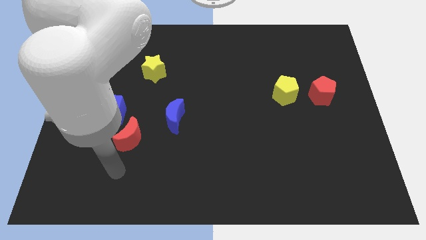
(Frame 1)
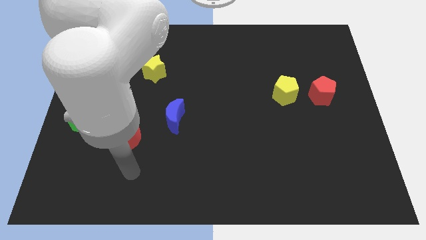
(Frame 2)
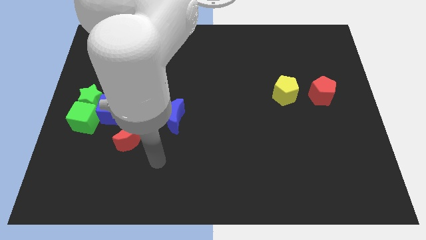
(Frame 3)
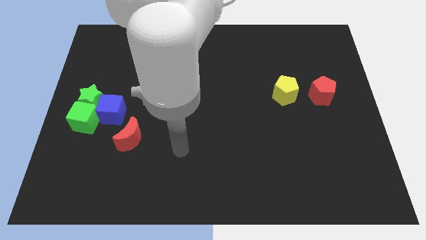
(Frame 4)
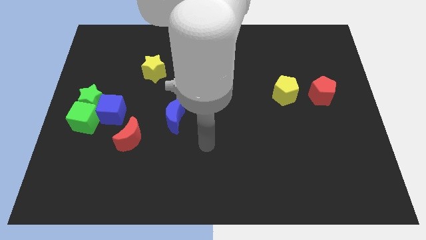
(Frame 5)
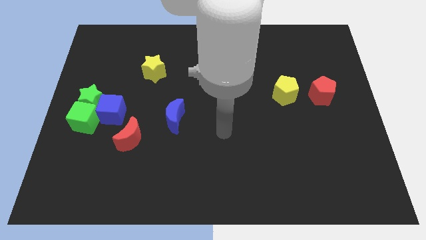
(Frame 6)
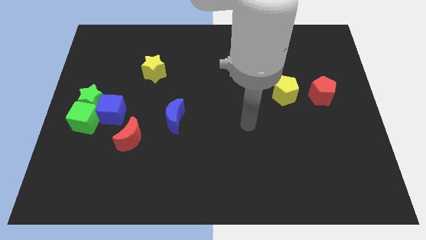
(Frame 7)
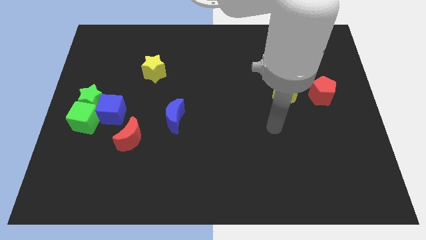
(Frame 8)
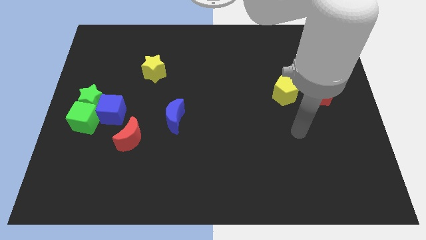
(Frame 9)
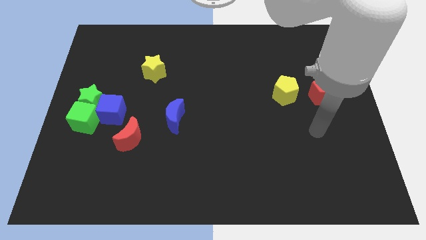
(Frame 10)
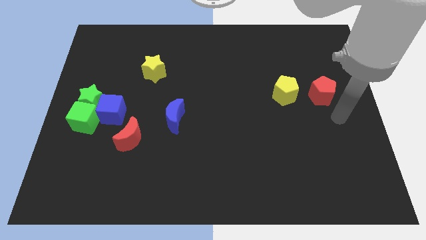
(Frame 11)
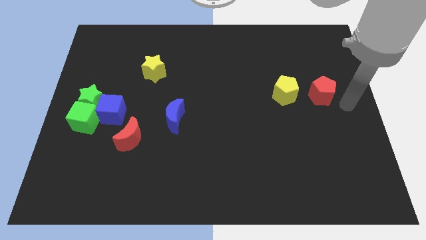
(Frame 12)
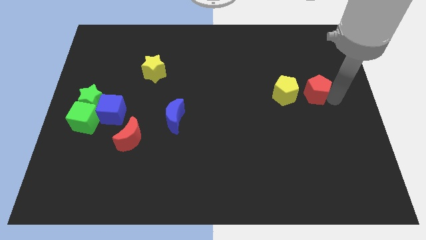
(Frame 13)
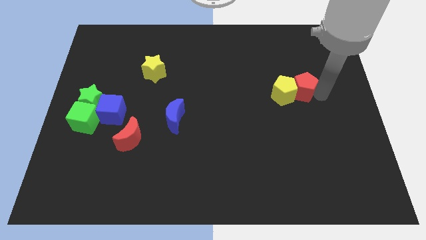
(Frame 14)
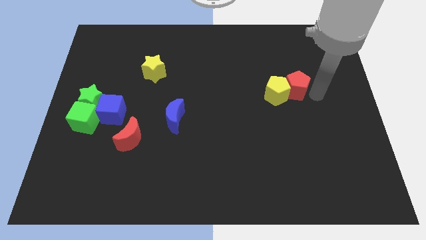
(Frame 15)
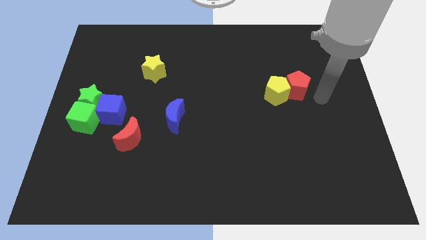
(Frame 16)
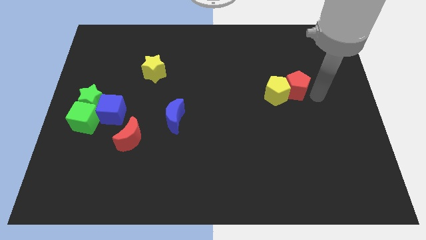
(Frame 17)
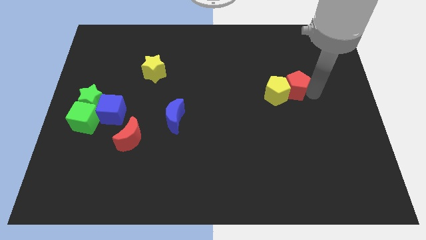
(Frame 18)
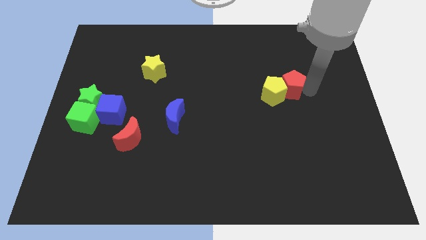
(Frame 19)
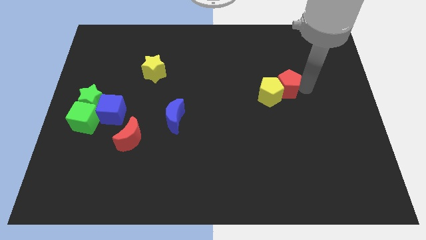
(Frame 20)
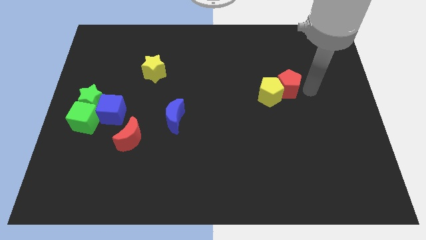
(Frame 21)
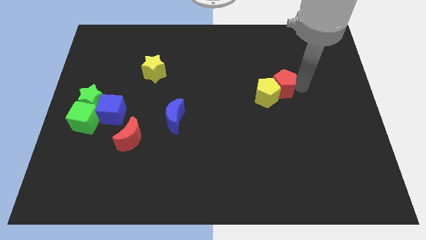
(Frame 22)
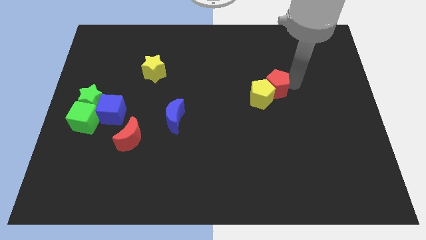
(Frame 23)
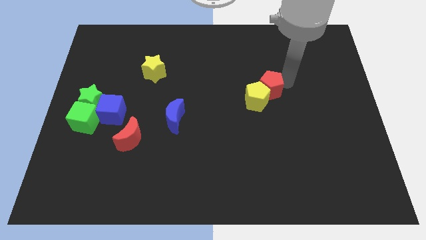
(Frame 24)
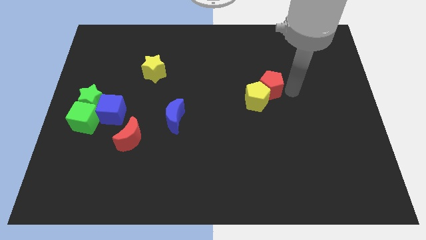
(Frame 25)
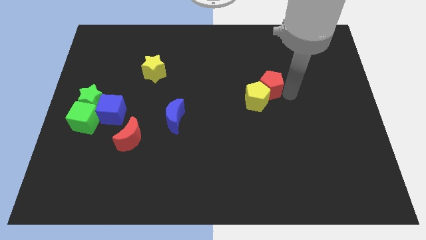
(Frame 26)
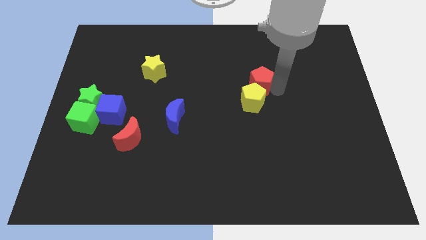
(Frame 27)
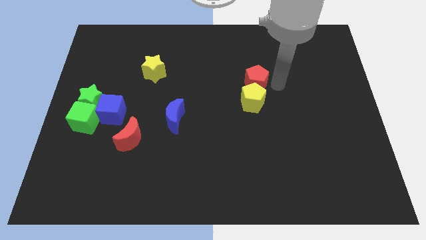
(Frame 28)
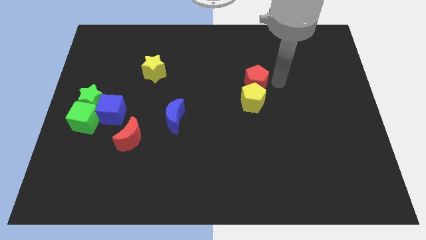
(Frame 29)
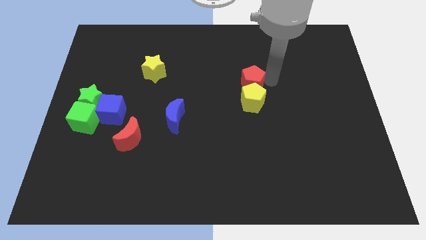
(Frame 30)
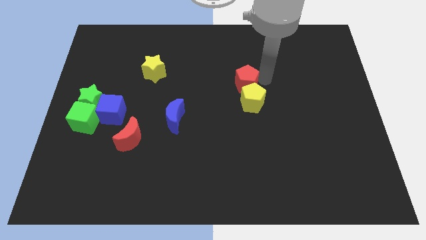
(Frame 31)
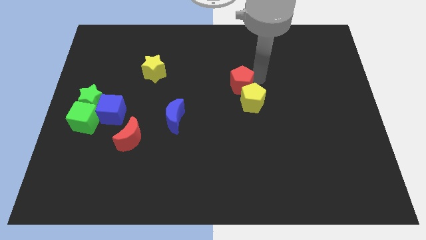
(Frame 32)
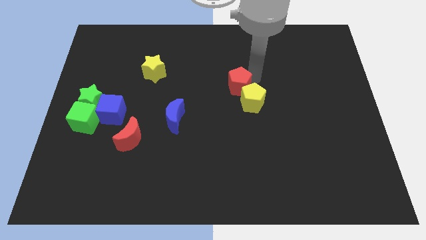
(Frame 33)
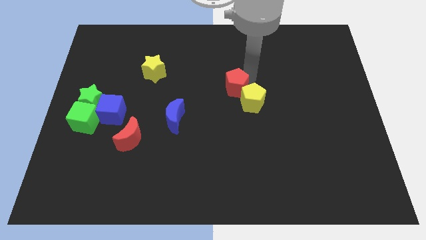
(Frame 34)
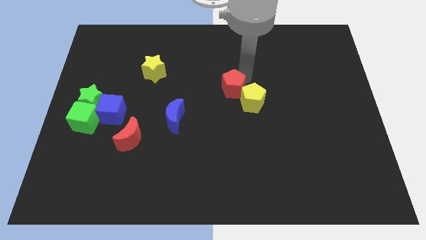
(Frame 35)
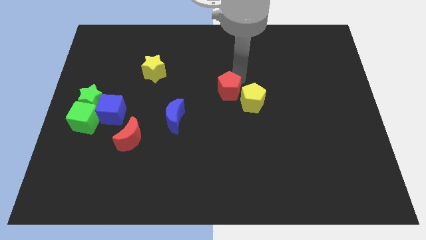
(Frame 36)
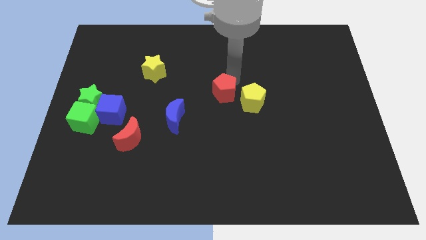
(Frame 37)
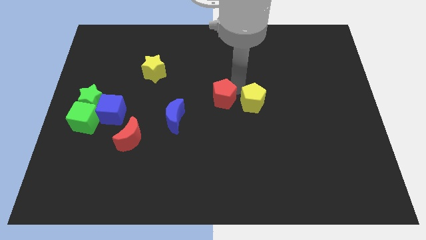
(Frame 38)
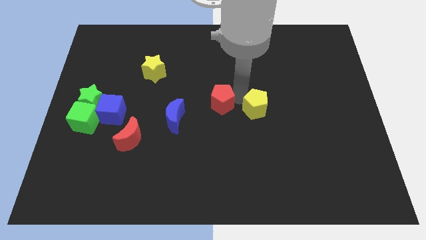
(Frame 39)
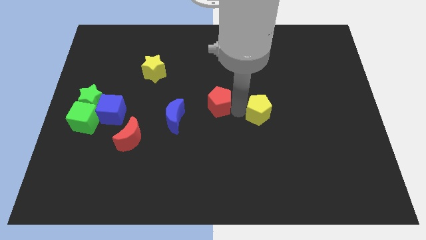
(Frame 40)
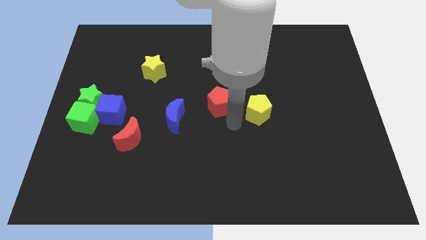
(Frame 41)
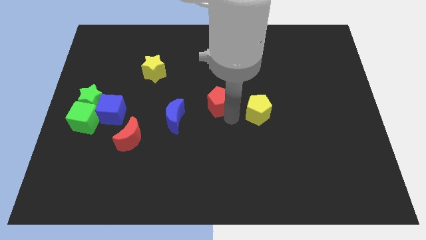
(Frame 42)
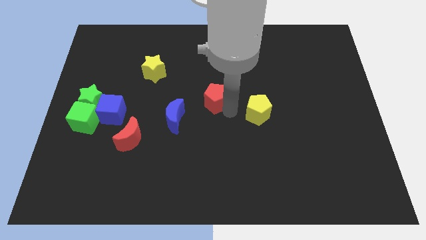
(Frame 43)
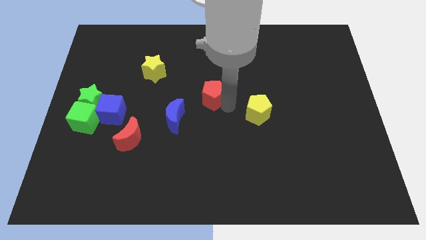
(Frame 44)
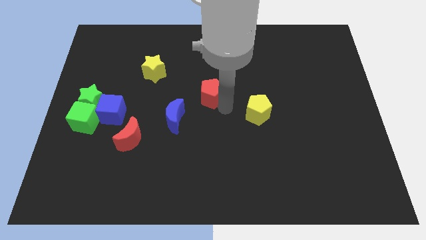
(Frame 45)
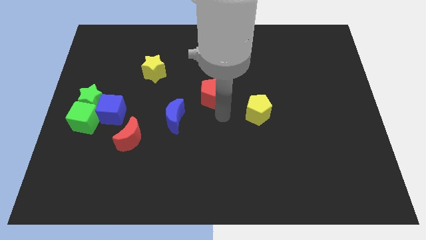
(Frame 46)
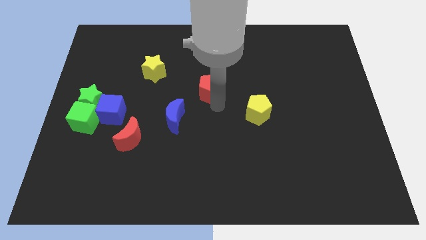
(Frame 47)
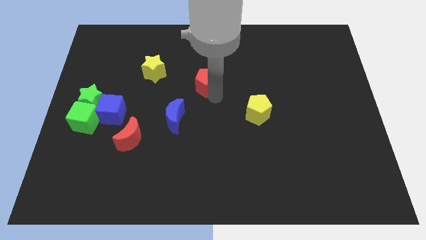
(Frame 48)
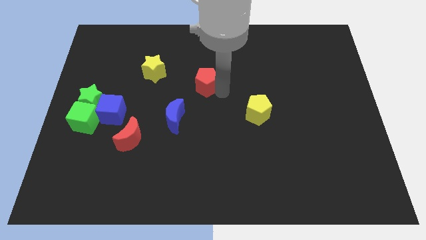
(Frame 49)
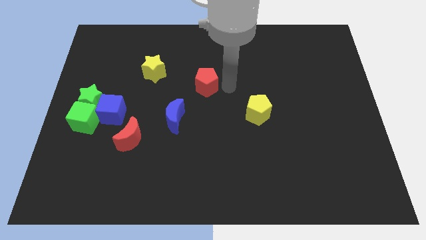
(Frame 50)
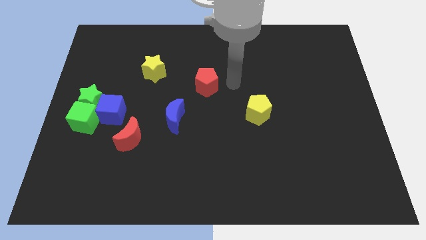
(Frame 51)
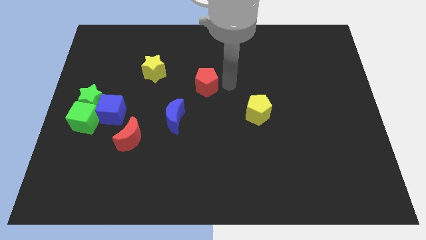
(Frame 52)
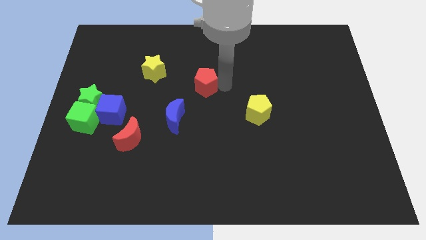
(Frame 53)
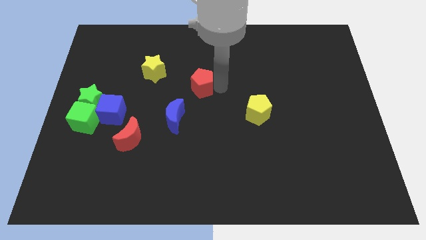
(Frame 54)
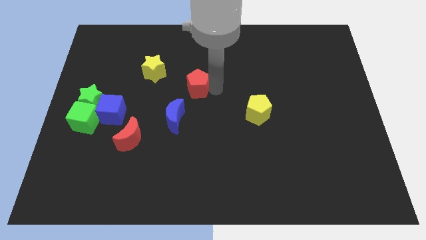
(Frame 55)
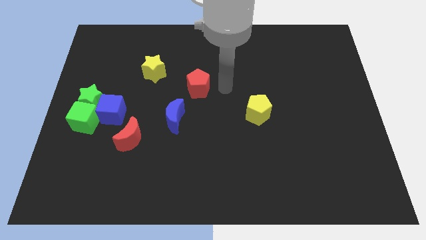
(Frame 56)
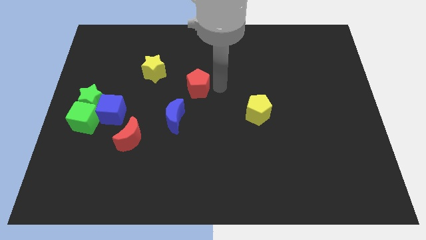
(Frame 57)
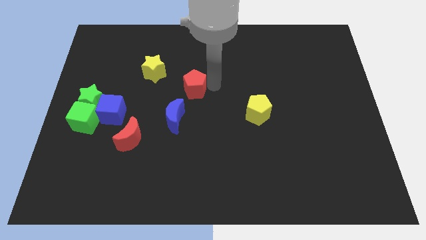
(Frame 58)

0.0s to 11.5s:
put the red pentagon to the bottom right of the yellow star

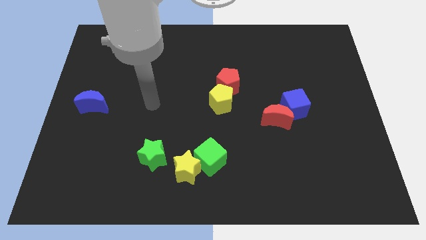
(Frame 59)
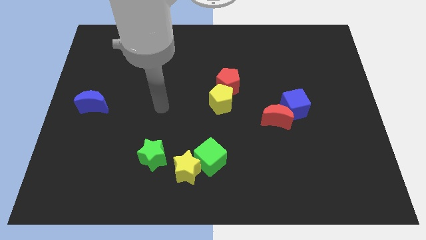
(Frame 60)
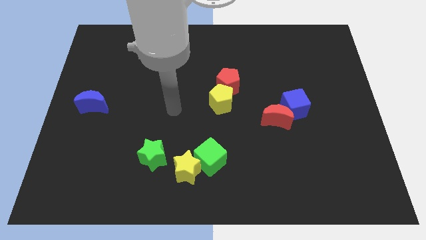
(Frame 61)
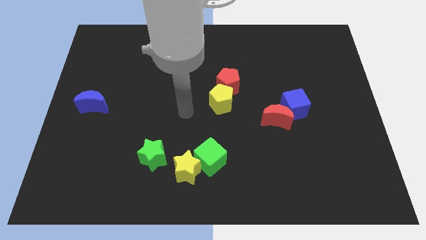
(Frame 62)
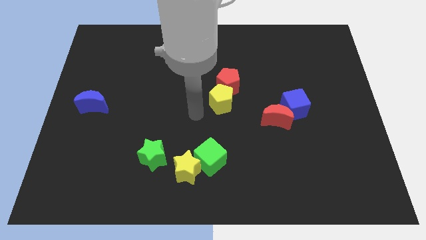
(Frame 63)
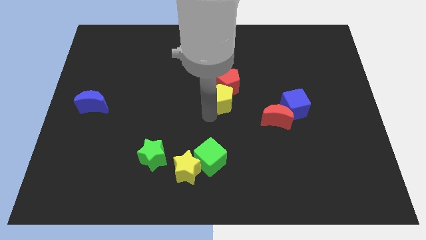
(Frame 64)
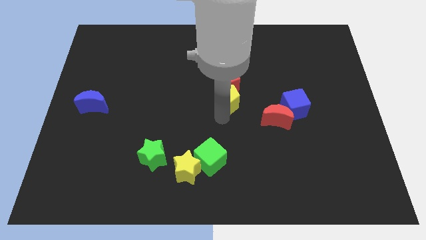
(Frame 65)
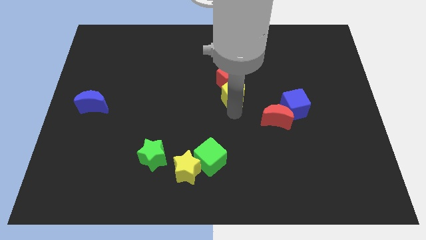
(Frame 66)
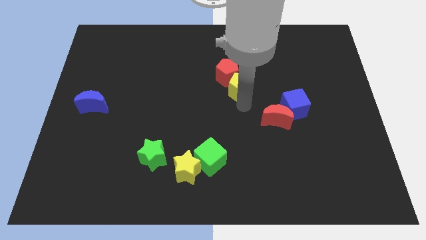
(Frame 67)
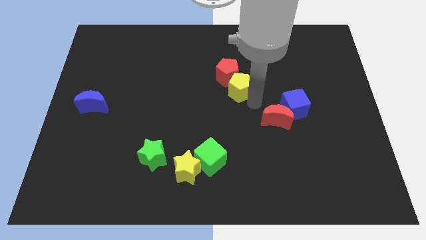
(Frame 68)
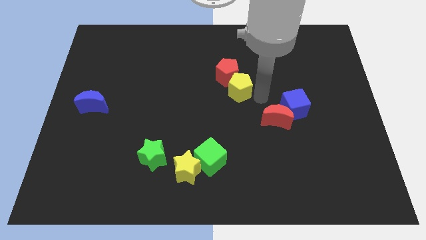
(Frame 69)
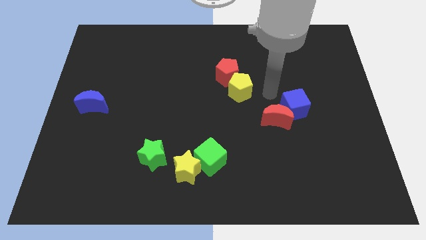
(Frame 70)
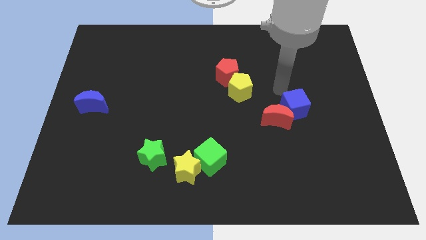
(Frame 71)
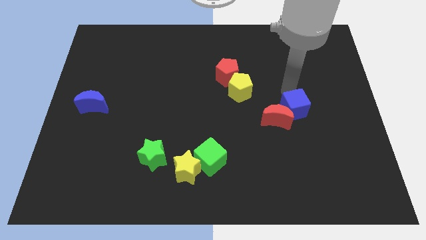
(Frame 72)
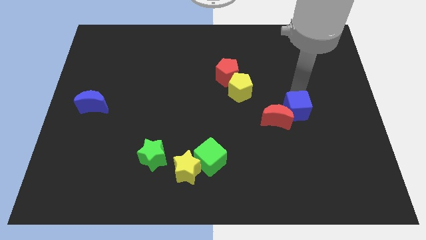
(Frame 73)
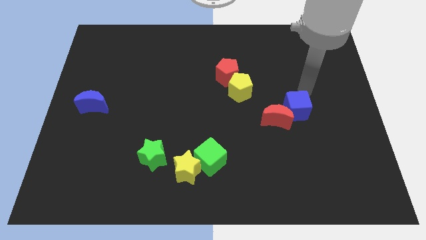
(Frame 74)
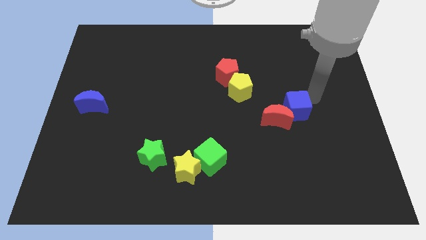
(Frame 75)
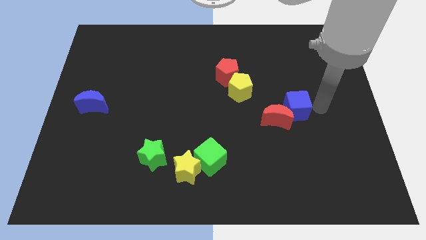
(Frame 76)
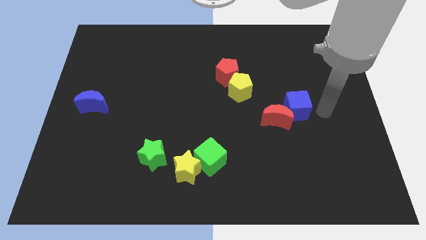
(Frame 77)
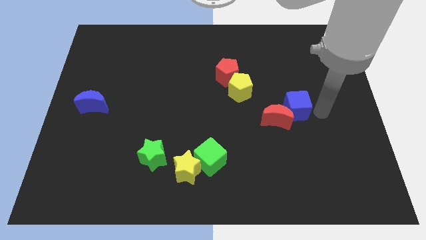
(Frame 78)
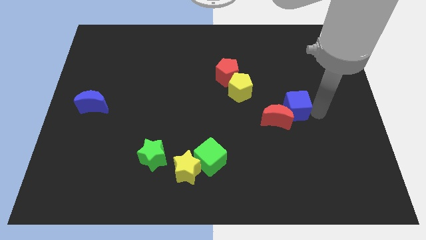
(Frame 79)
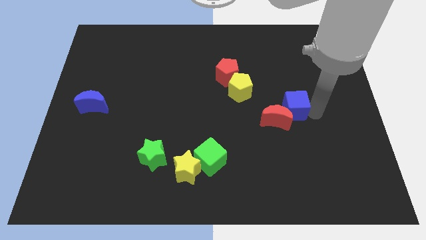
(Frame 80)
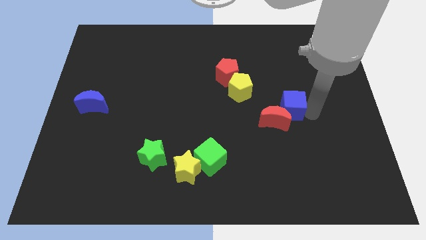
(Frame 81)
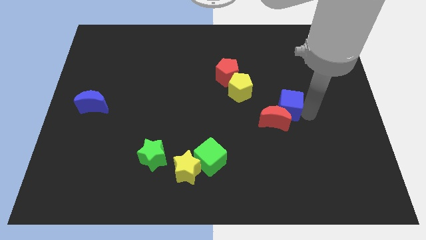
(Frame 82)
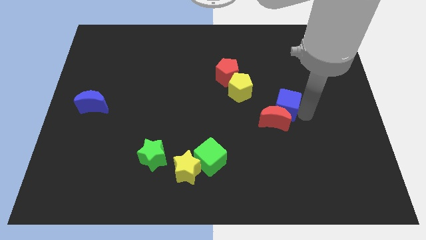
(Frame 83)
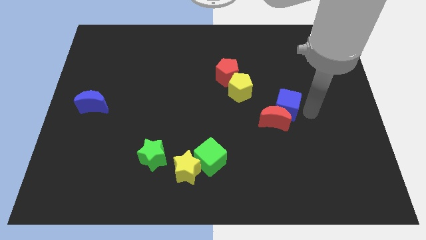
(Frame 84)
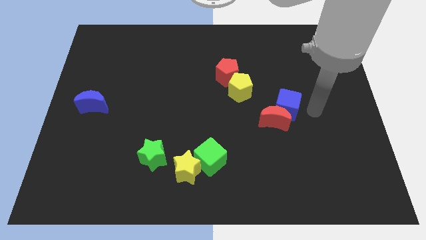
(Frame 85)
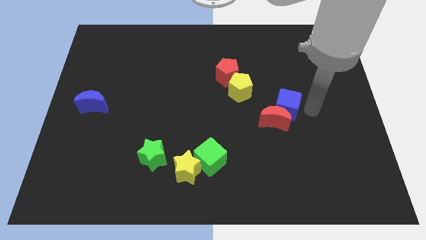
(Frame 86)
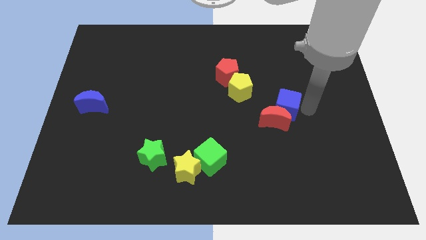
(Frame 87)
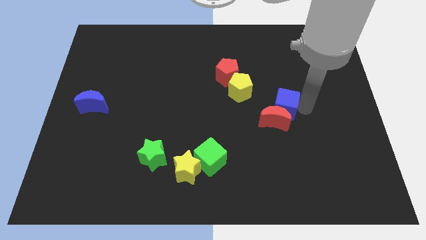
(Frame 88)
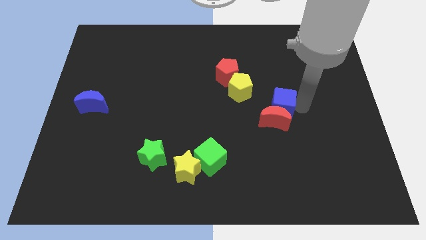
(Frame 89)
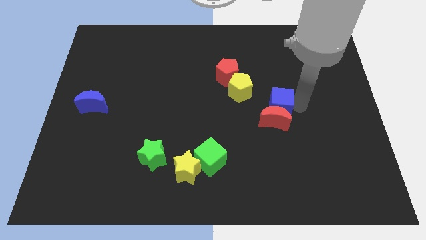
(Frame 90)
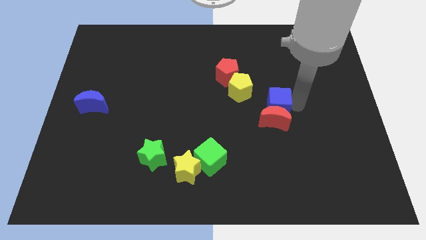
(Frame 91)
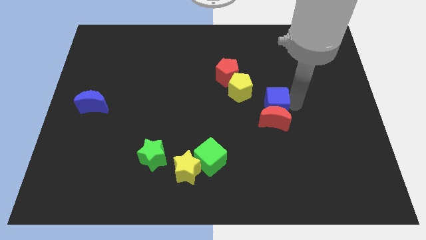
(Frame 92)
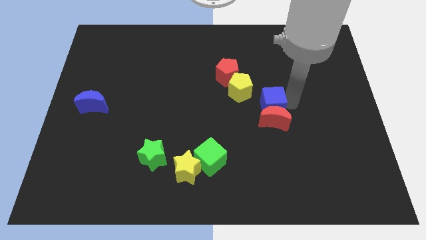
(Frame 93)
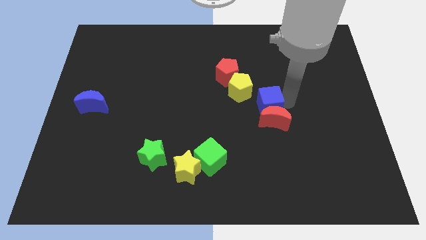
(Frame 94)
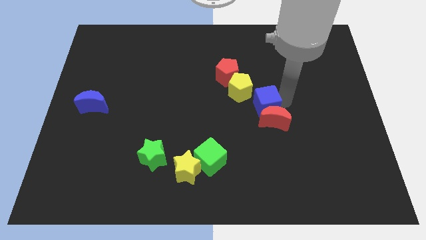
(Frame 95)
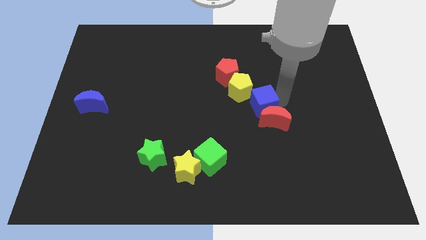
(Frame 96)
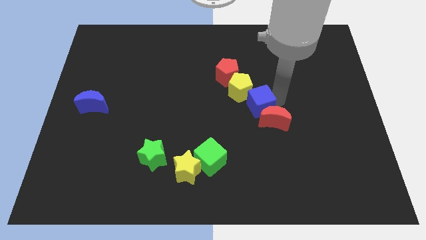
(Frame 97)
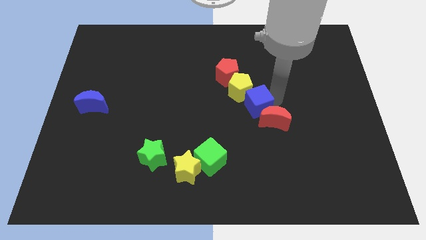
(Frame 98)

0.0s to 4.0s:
move the blue cube left of the red moon
